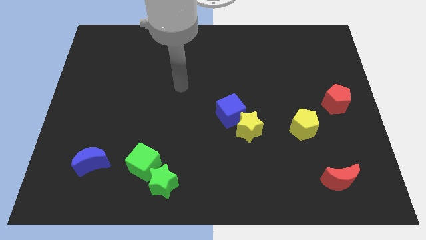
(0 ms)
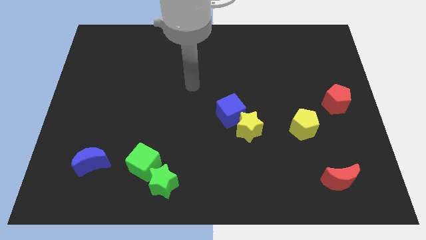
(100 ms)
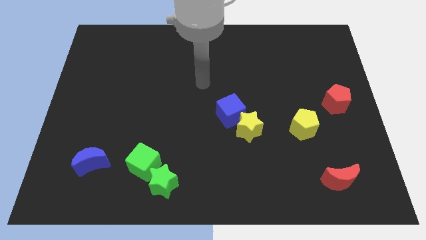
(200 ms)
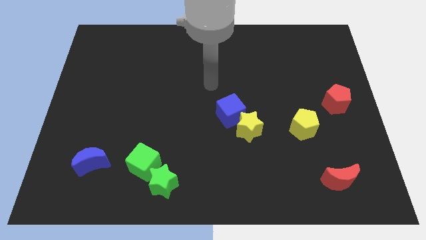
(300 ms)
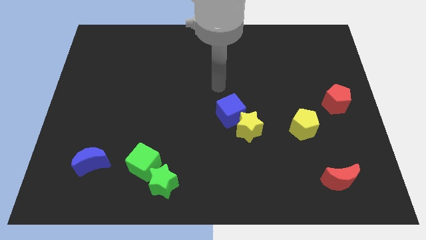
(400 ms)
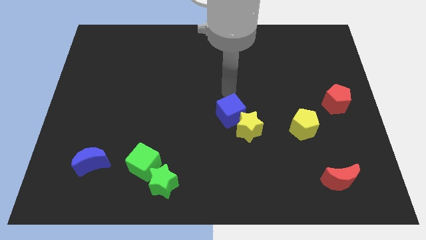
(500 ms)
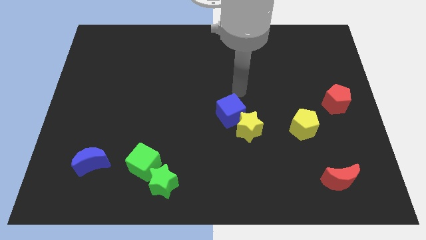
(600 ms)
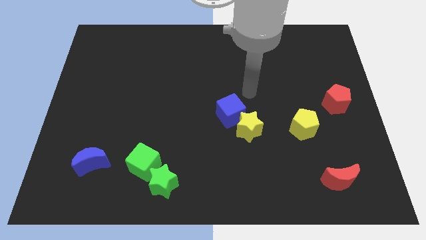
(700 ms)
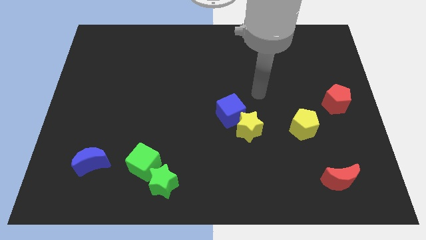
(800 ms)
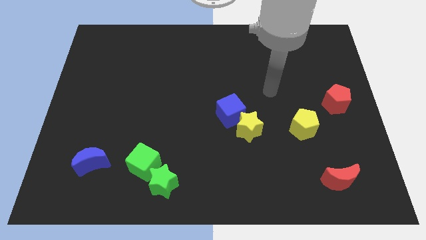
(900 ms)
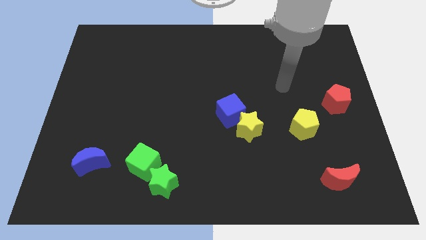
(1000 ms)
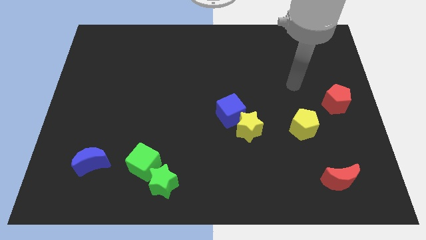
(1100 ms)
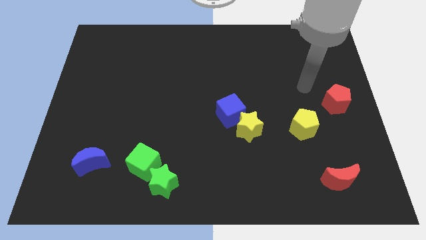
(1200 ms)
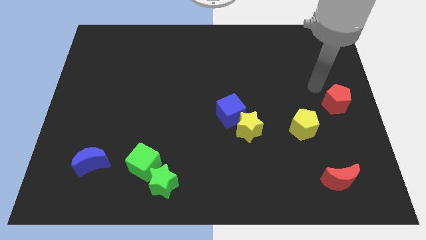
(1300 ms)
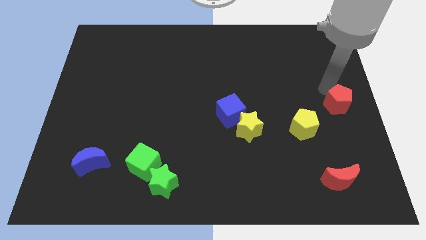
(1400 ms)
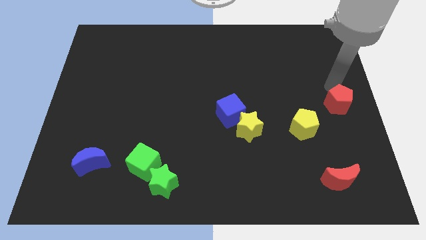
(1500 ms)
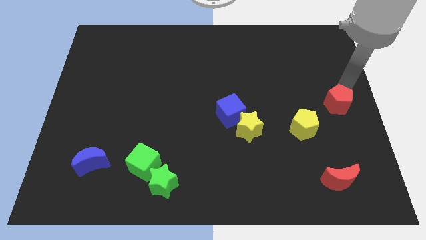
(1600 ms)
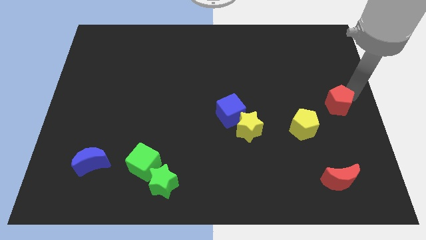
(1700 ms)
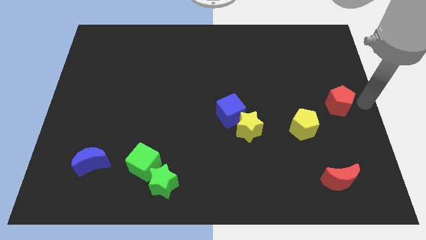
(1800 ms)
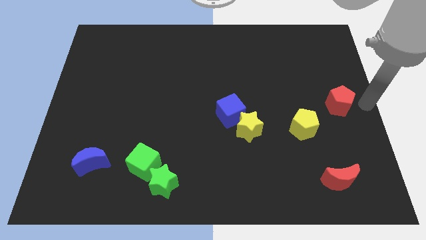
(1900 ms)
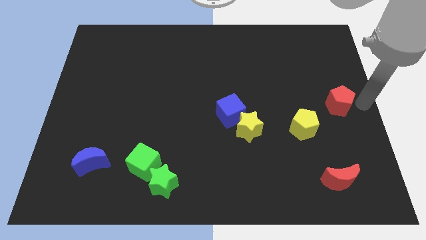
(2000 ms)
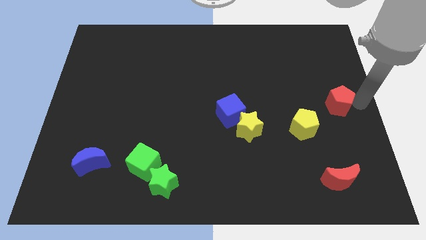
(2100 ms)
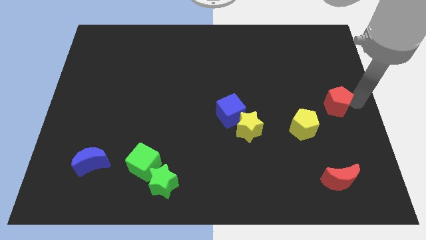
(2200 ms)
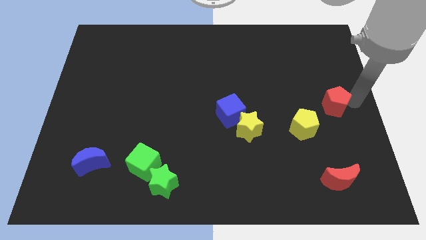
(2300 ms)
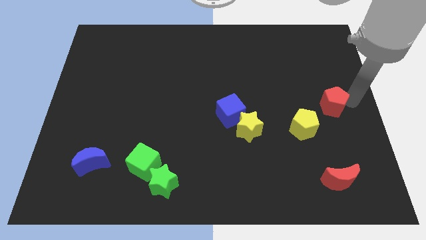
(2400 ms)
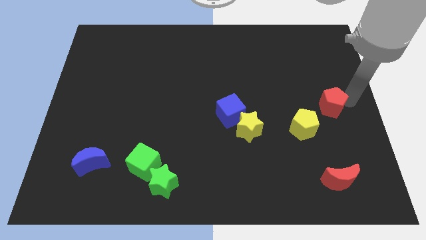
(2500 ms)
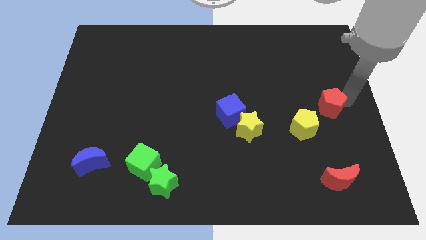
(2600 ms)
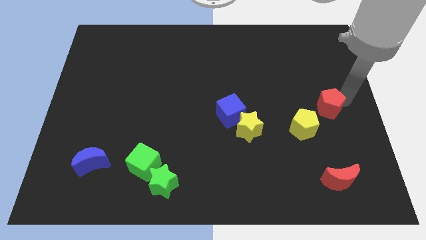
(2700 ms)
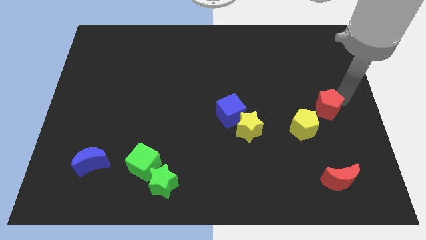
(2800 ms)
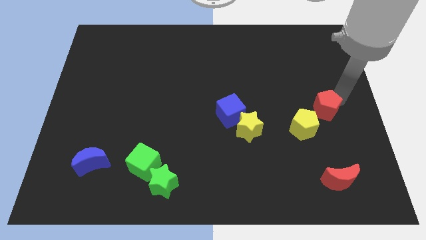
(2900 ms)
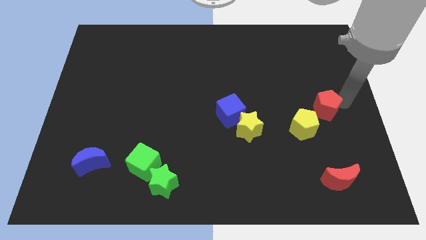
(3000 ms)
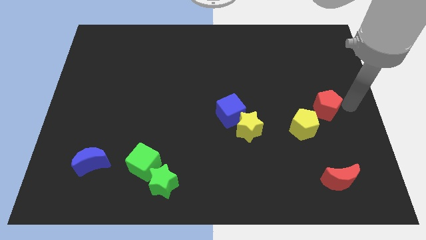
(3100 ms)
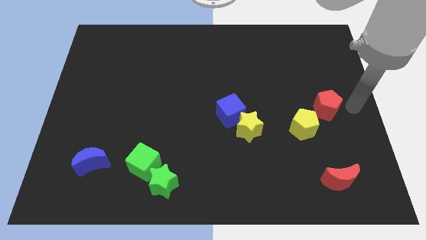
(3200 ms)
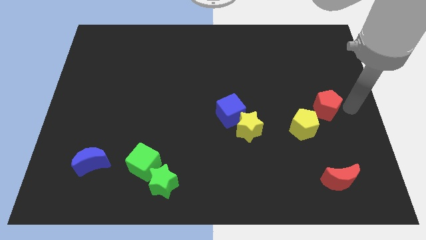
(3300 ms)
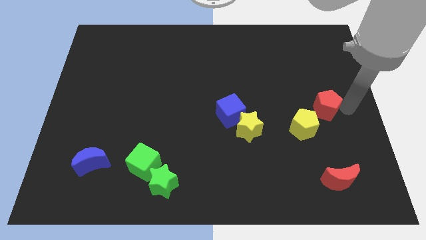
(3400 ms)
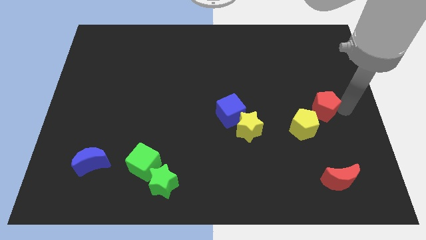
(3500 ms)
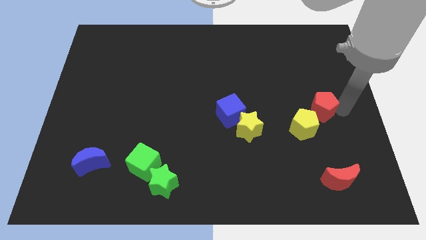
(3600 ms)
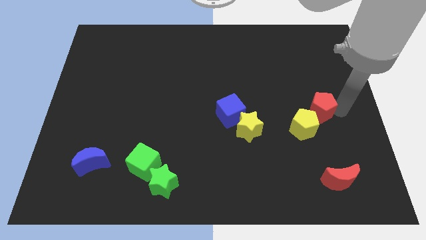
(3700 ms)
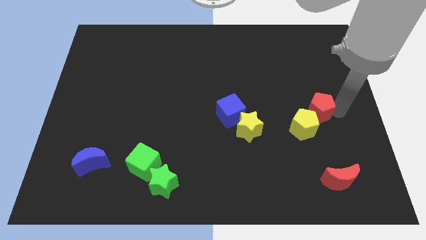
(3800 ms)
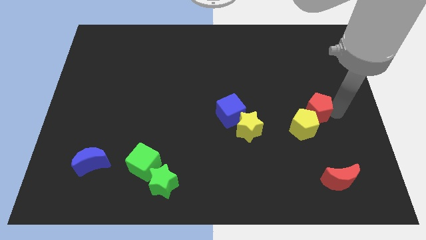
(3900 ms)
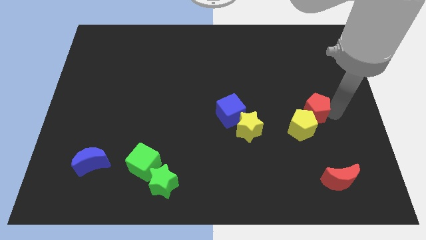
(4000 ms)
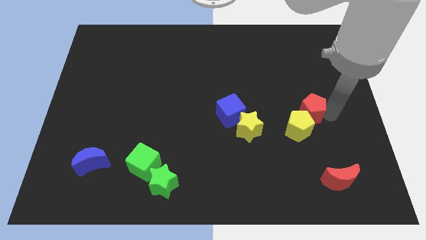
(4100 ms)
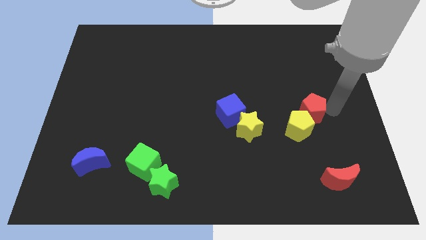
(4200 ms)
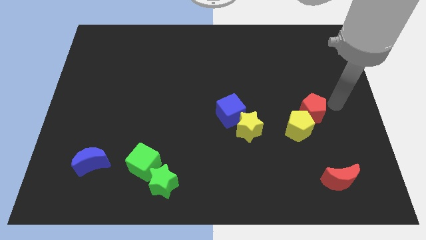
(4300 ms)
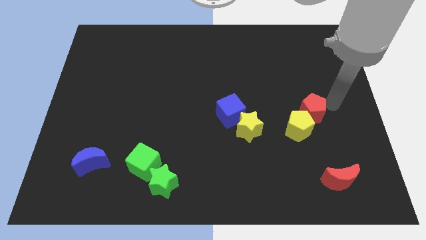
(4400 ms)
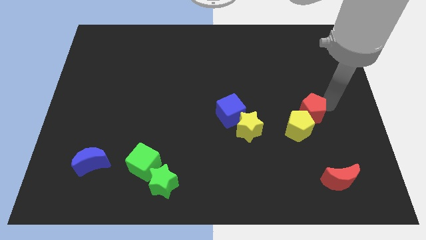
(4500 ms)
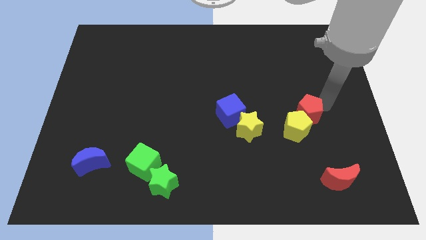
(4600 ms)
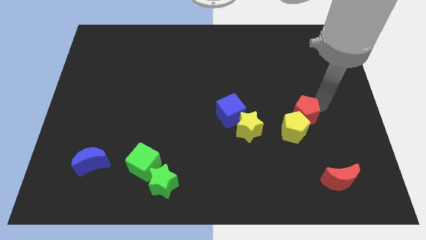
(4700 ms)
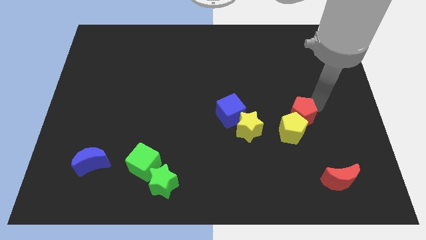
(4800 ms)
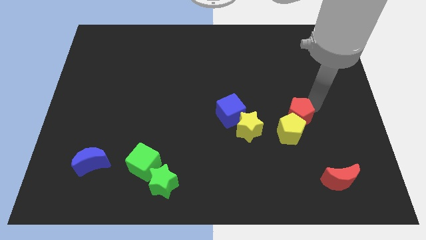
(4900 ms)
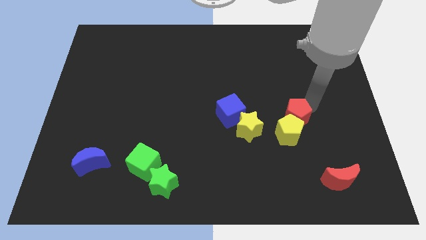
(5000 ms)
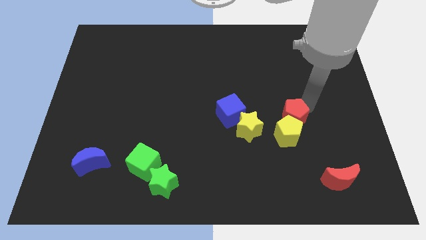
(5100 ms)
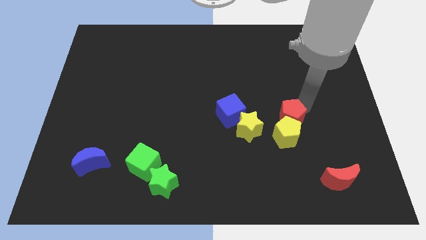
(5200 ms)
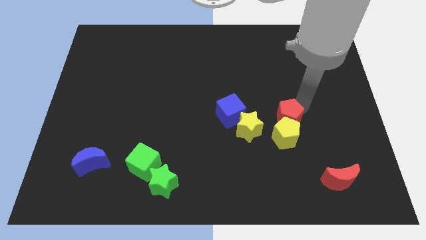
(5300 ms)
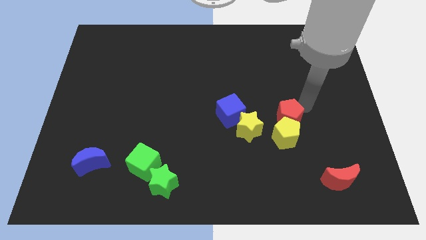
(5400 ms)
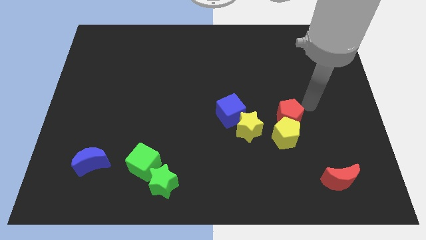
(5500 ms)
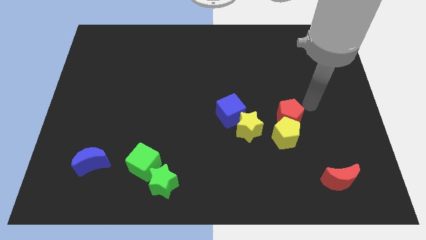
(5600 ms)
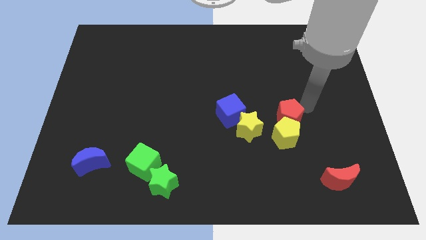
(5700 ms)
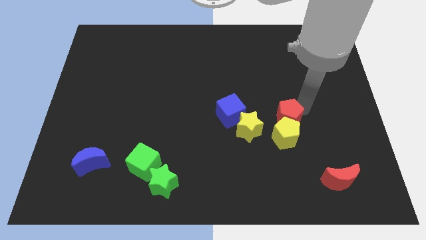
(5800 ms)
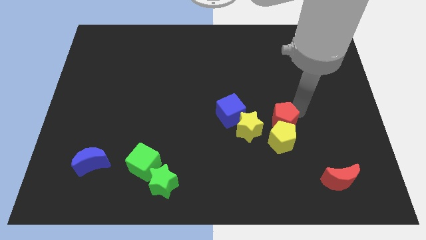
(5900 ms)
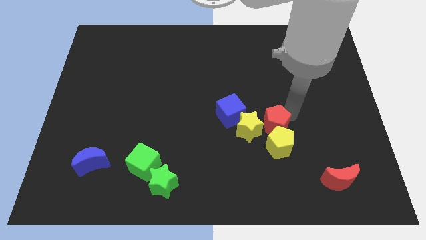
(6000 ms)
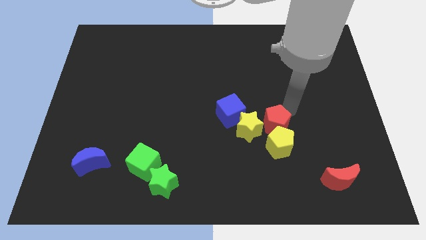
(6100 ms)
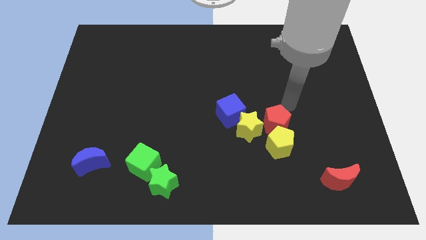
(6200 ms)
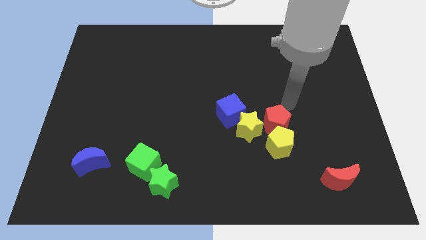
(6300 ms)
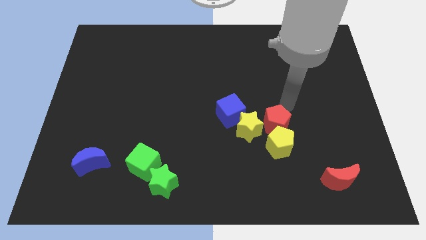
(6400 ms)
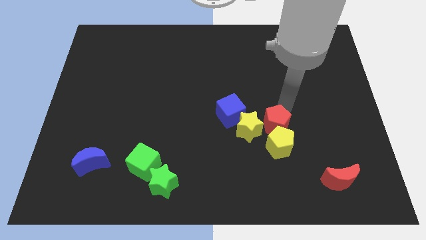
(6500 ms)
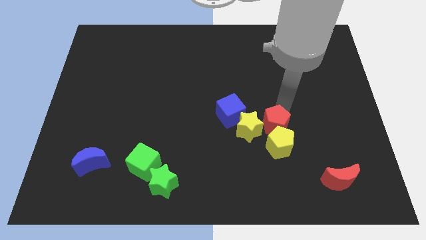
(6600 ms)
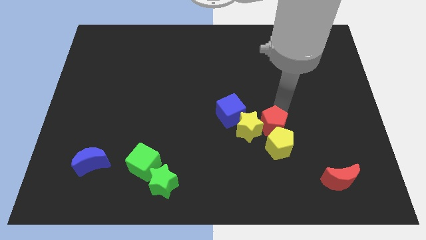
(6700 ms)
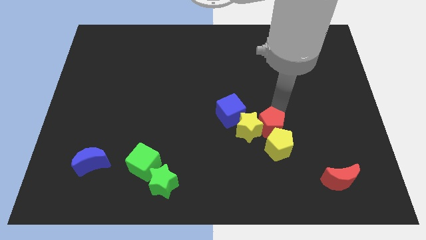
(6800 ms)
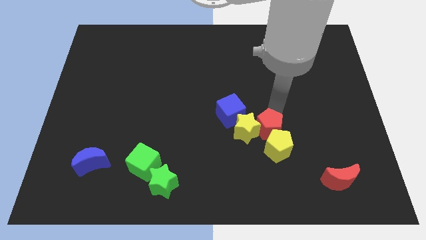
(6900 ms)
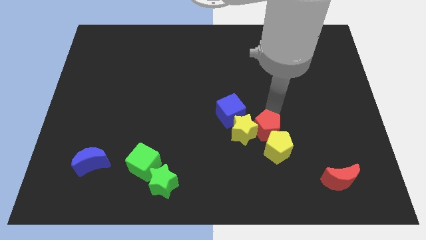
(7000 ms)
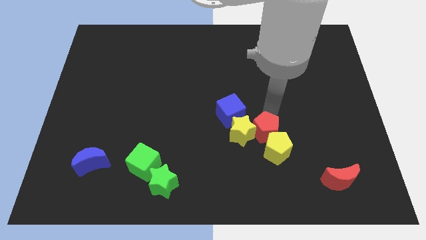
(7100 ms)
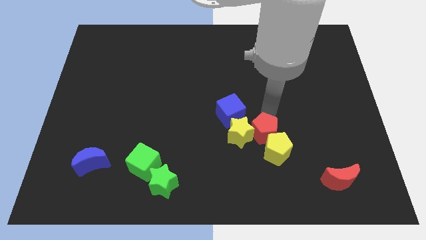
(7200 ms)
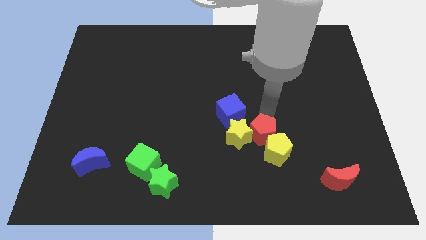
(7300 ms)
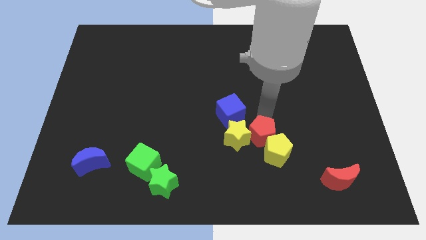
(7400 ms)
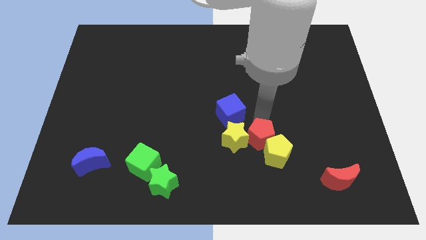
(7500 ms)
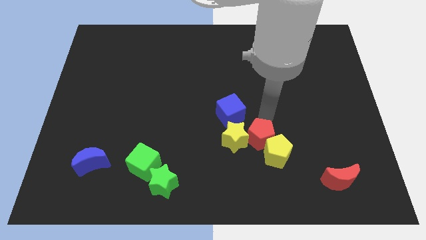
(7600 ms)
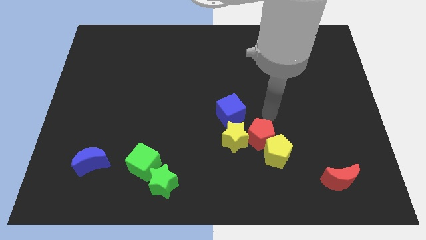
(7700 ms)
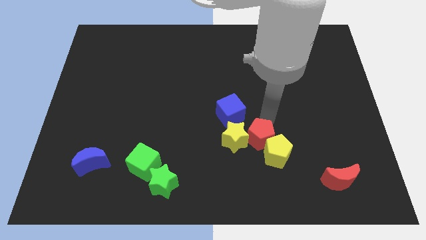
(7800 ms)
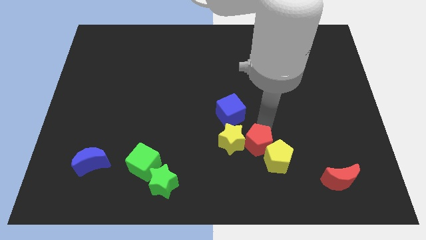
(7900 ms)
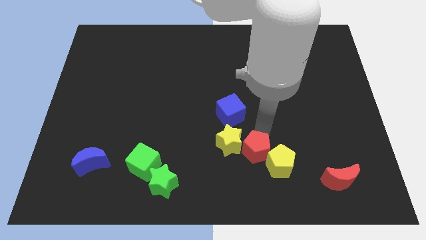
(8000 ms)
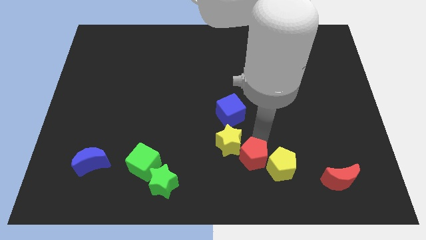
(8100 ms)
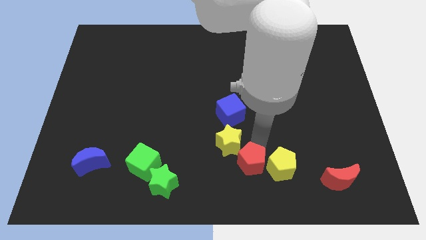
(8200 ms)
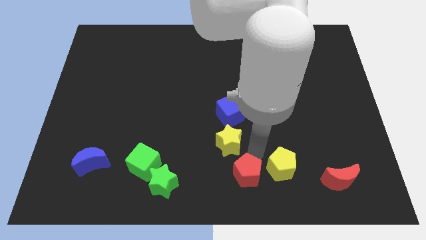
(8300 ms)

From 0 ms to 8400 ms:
slide the red pentagon to the bottom
